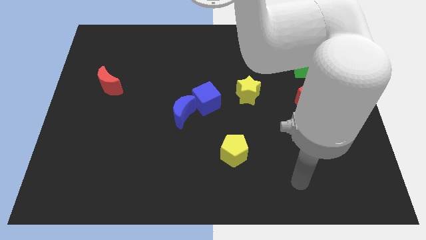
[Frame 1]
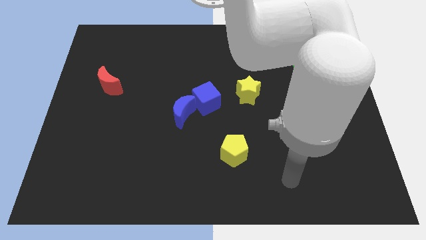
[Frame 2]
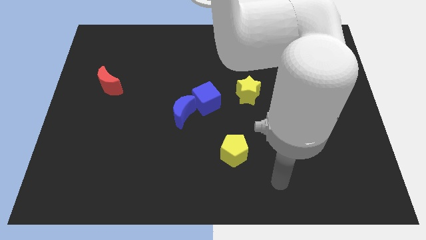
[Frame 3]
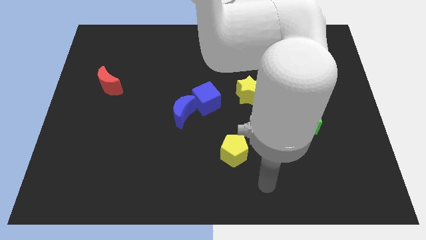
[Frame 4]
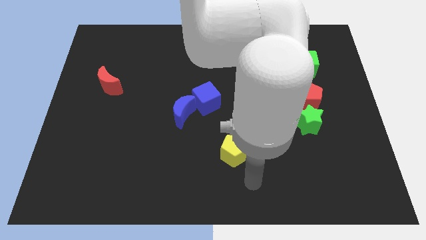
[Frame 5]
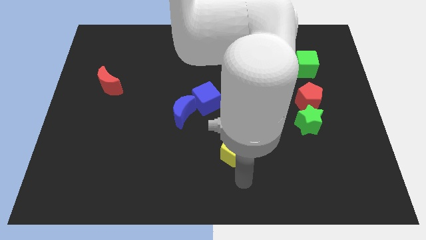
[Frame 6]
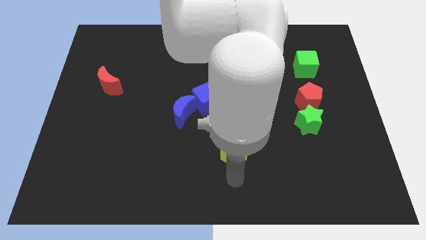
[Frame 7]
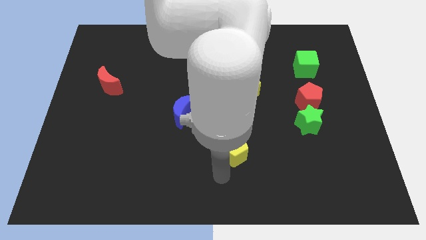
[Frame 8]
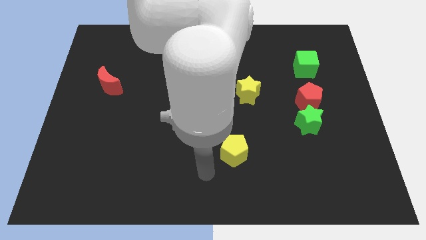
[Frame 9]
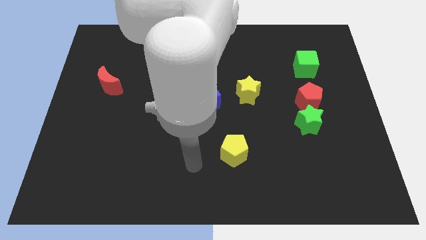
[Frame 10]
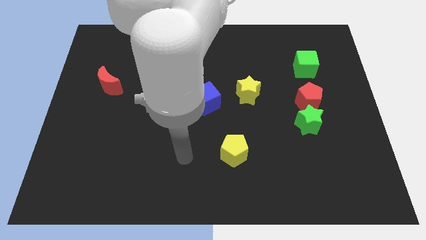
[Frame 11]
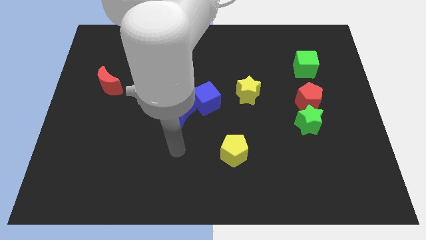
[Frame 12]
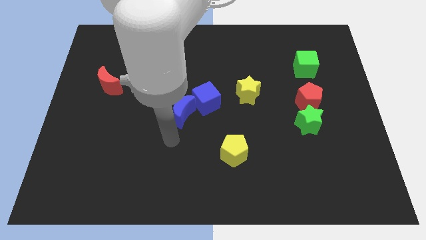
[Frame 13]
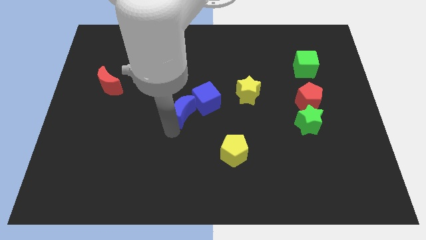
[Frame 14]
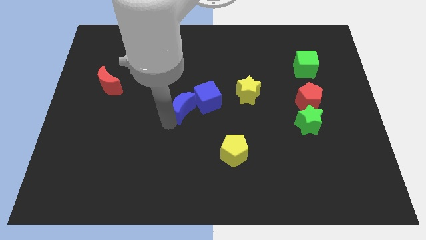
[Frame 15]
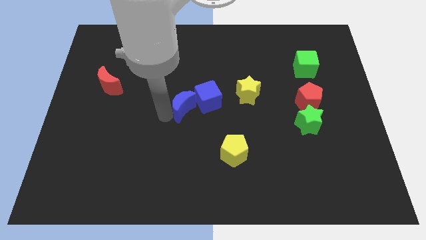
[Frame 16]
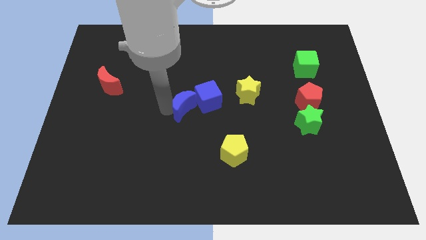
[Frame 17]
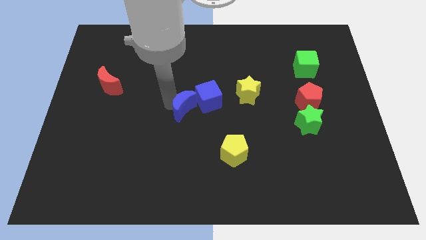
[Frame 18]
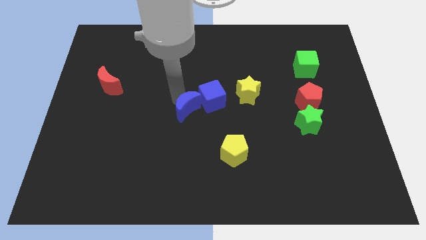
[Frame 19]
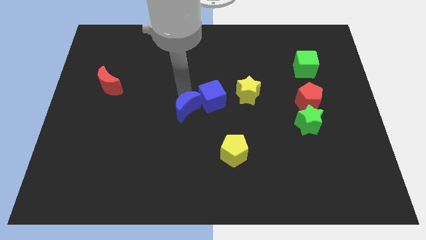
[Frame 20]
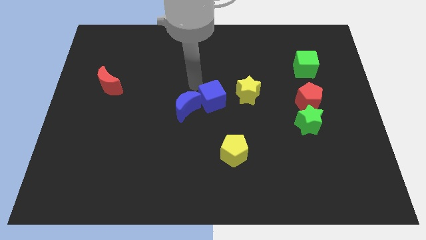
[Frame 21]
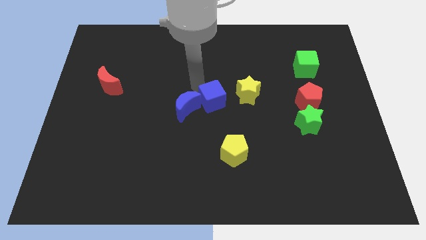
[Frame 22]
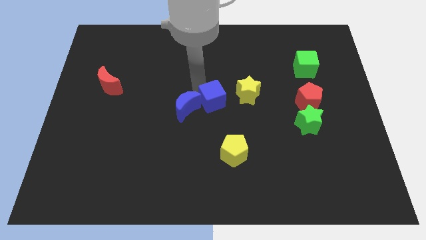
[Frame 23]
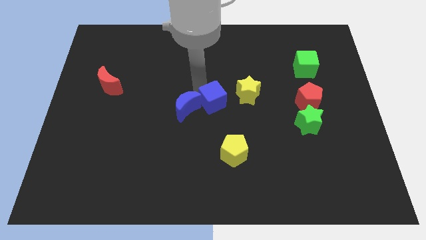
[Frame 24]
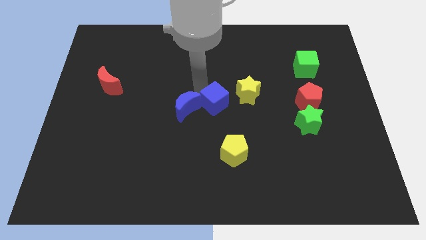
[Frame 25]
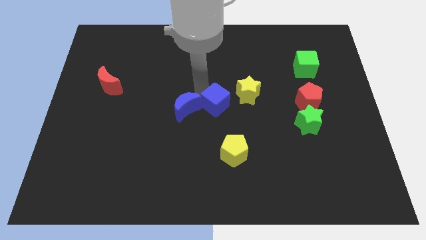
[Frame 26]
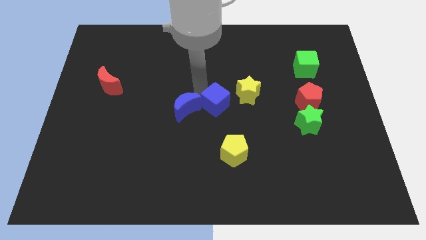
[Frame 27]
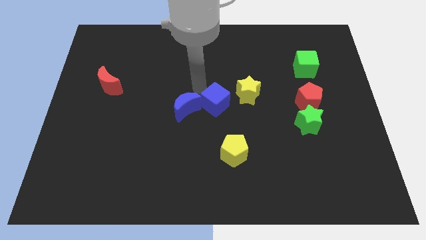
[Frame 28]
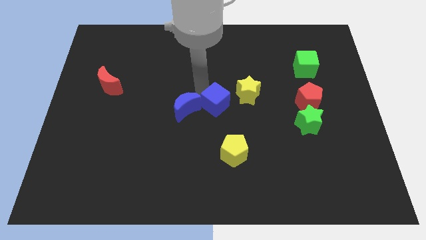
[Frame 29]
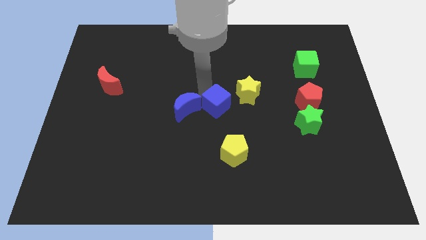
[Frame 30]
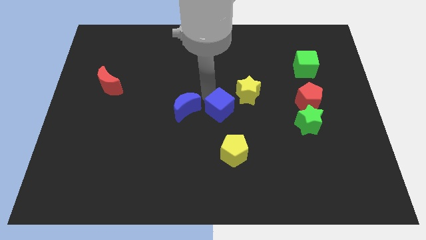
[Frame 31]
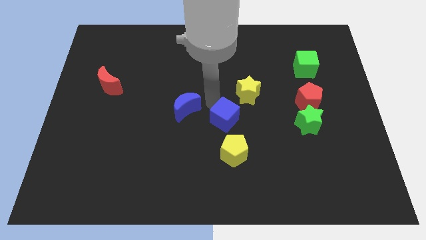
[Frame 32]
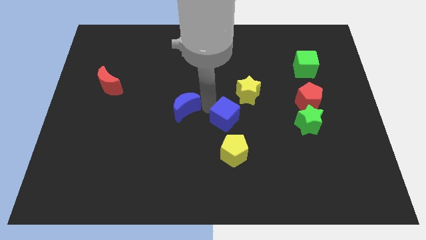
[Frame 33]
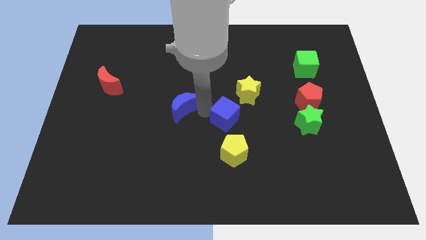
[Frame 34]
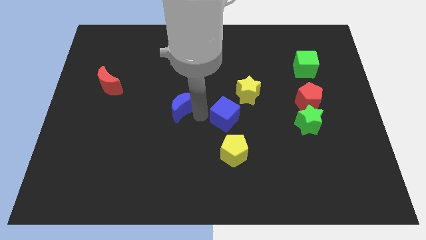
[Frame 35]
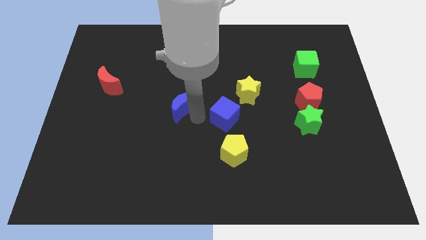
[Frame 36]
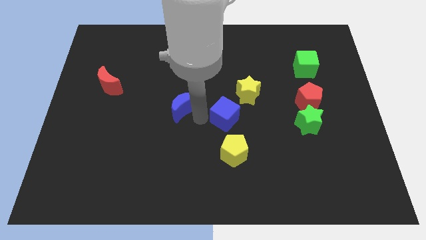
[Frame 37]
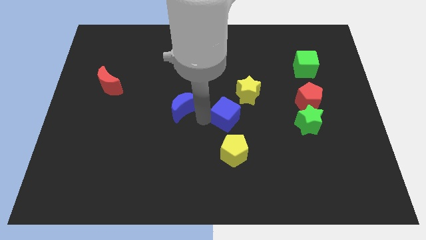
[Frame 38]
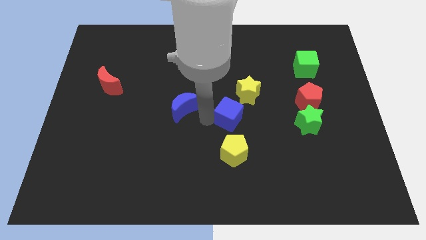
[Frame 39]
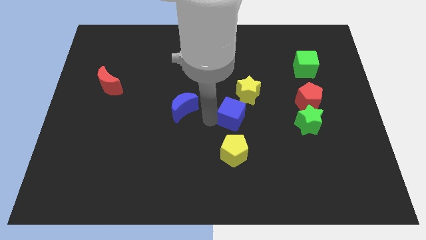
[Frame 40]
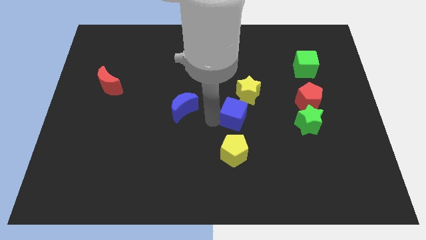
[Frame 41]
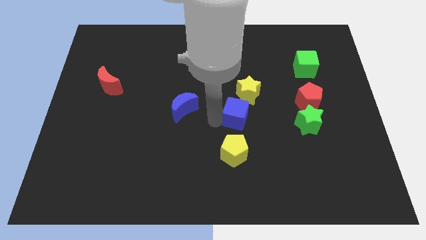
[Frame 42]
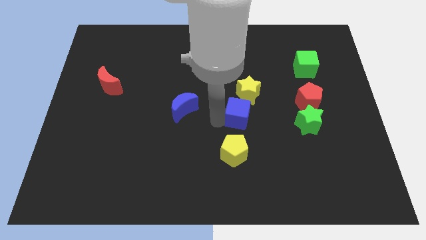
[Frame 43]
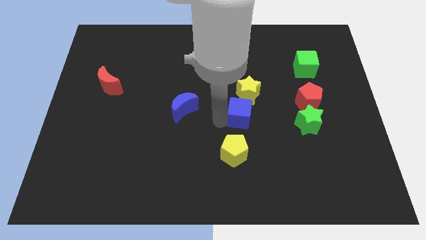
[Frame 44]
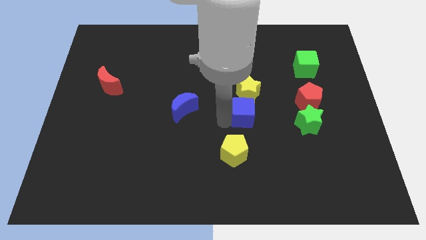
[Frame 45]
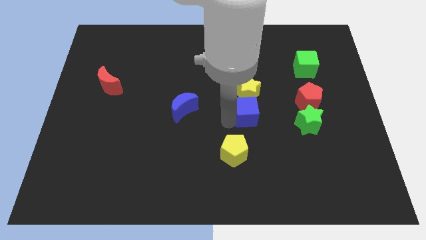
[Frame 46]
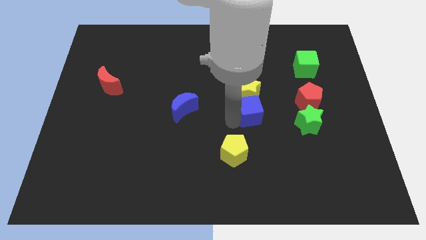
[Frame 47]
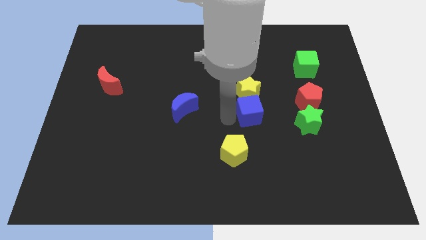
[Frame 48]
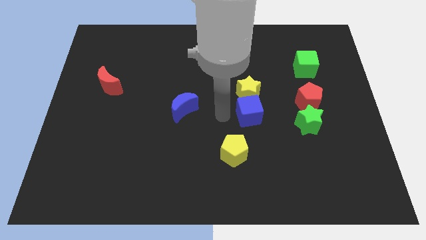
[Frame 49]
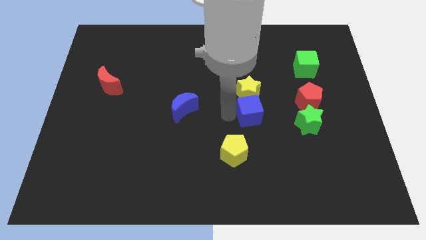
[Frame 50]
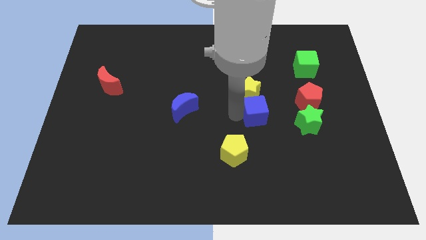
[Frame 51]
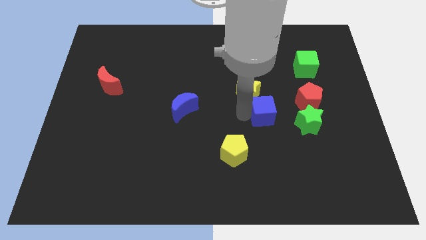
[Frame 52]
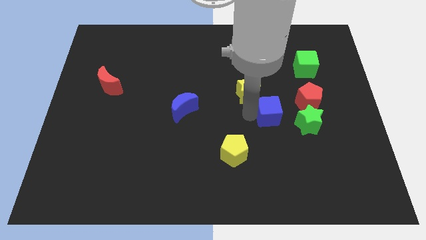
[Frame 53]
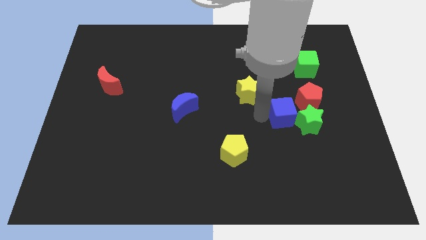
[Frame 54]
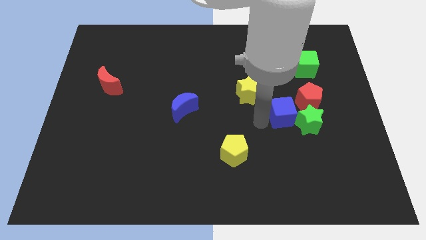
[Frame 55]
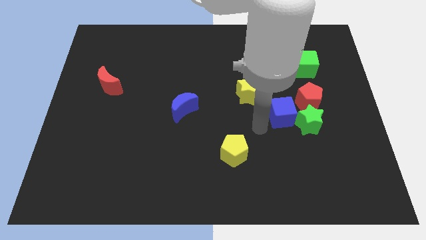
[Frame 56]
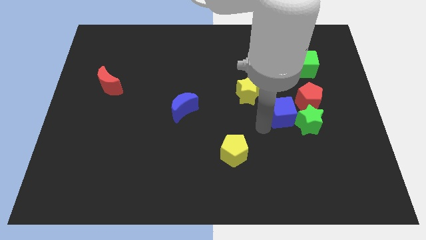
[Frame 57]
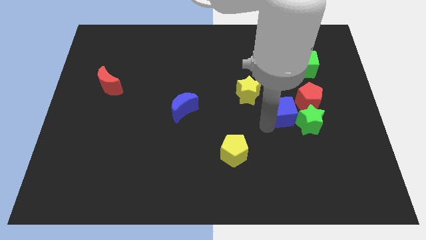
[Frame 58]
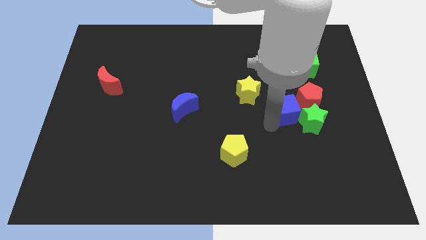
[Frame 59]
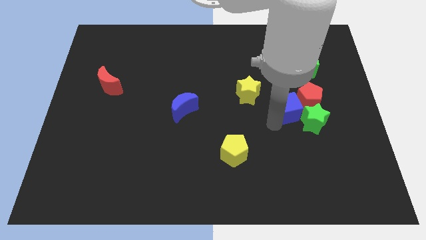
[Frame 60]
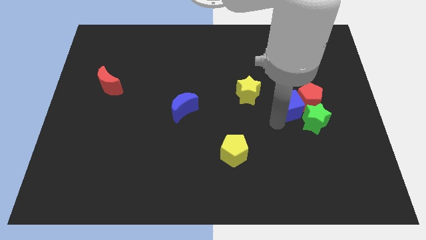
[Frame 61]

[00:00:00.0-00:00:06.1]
put the blue cube next to the red pentagon
